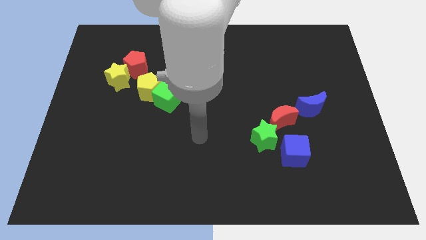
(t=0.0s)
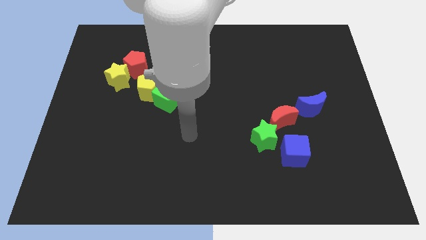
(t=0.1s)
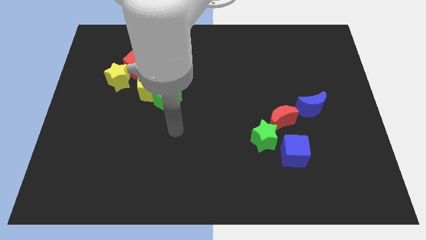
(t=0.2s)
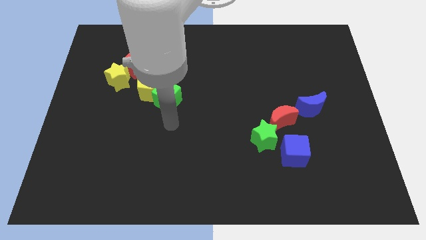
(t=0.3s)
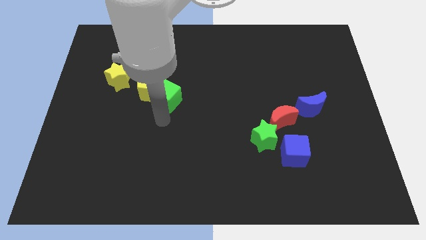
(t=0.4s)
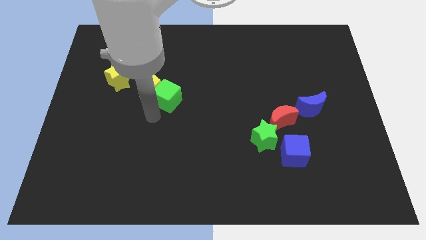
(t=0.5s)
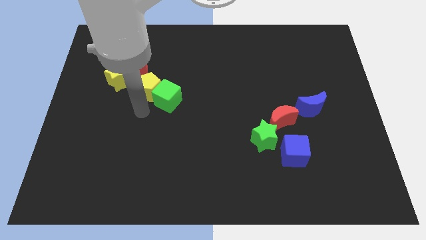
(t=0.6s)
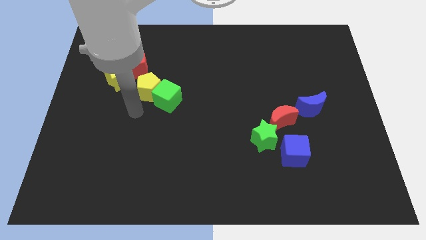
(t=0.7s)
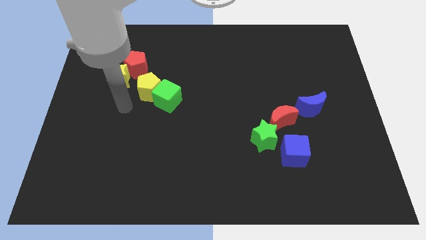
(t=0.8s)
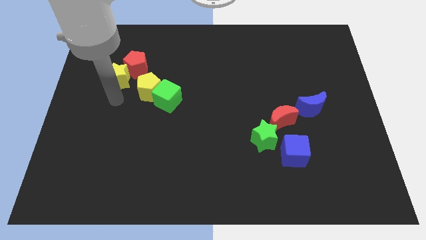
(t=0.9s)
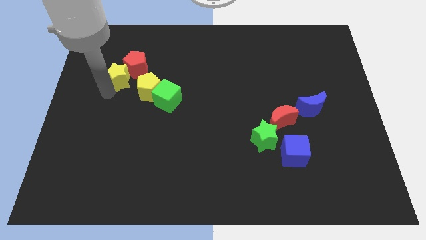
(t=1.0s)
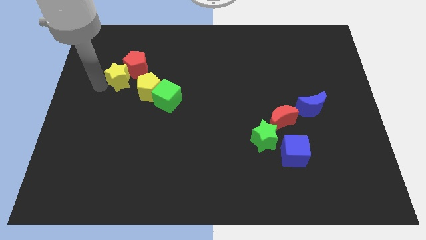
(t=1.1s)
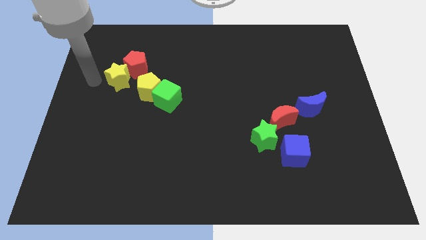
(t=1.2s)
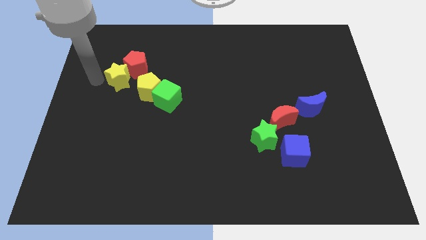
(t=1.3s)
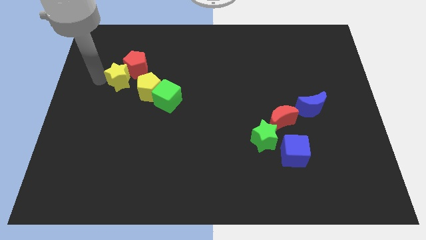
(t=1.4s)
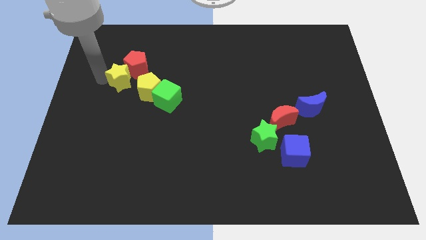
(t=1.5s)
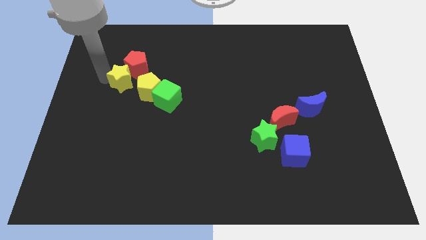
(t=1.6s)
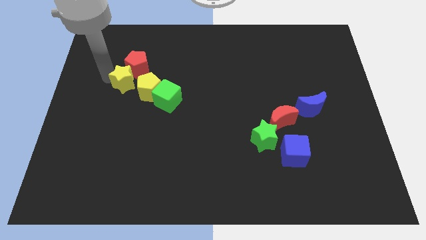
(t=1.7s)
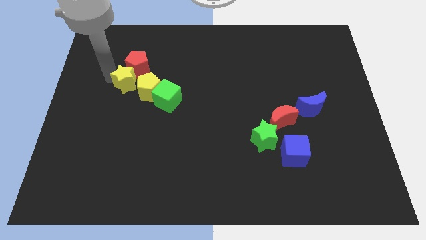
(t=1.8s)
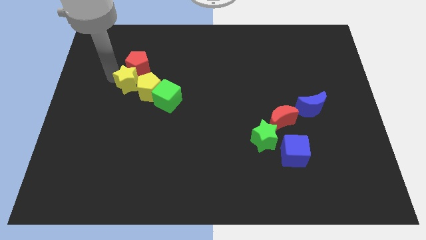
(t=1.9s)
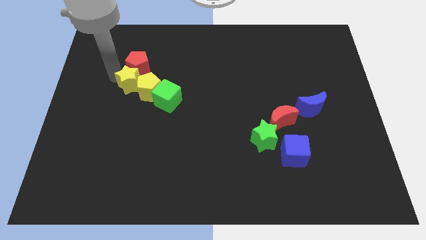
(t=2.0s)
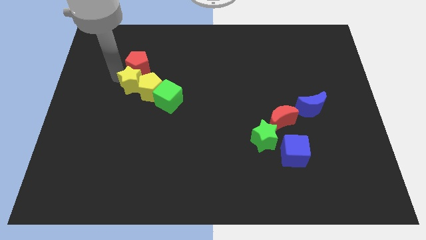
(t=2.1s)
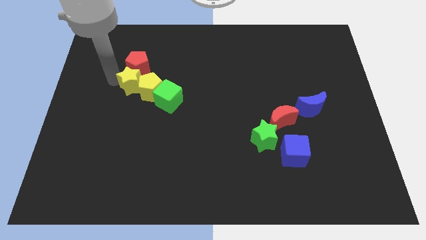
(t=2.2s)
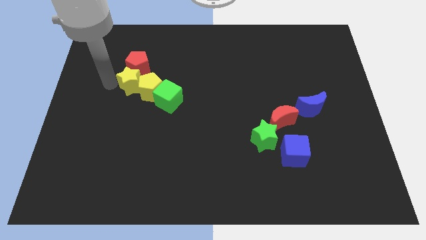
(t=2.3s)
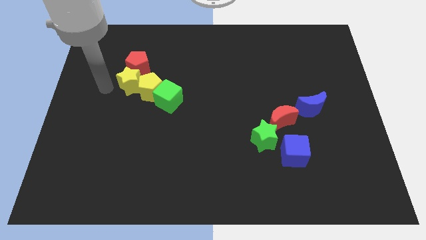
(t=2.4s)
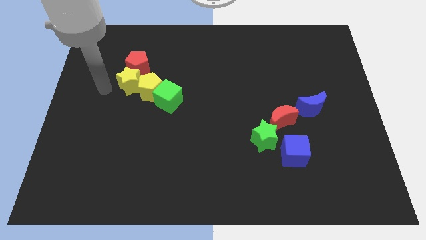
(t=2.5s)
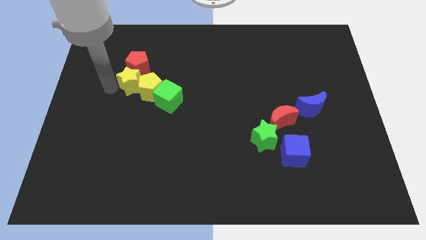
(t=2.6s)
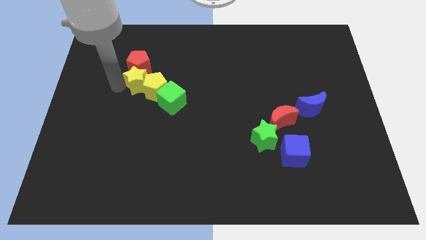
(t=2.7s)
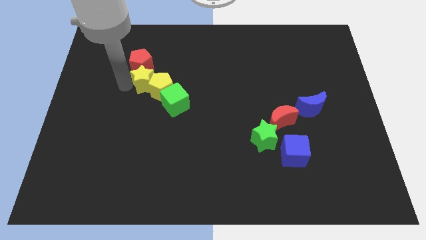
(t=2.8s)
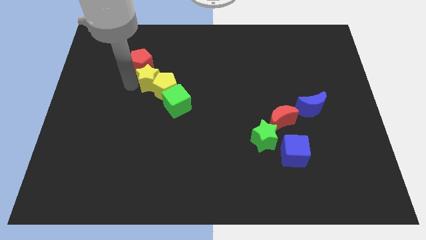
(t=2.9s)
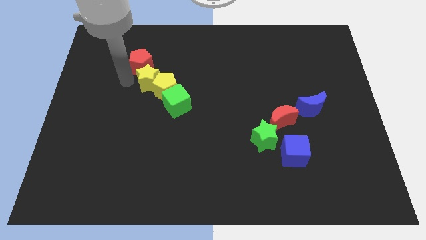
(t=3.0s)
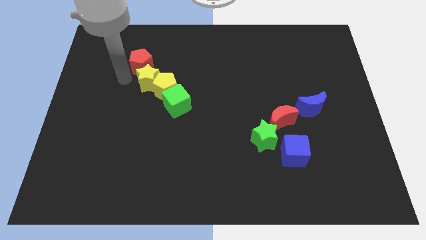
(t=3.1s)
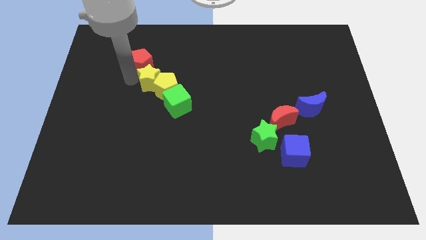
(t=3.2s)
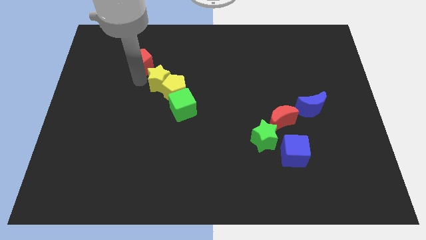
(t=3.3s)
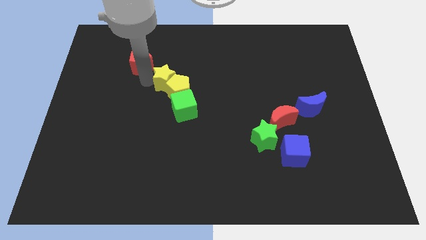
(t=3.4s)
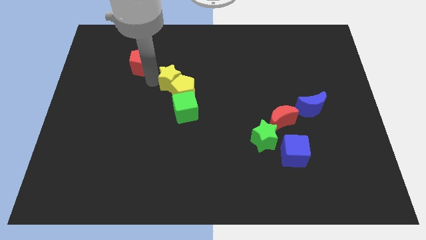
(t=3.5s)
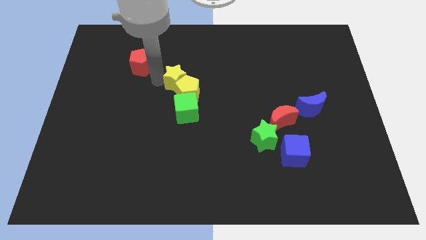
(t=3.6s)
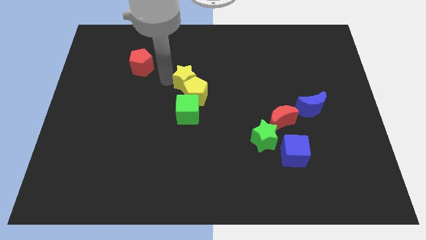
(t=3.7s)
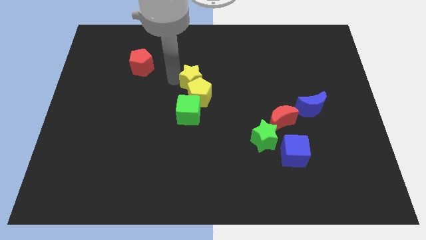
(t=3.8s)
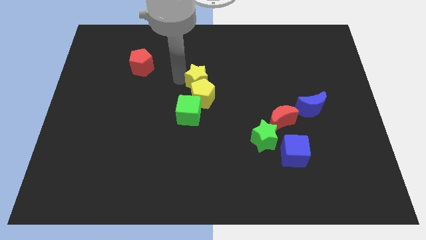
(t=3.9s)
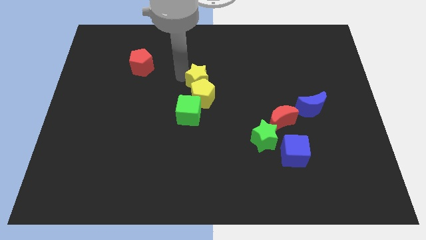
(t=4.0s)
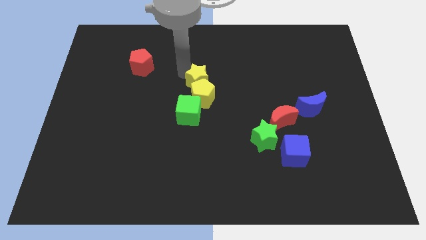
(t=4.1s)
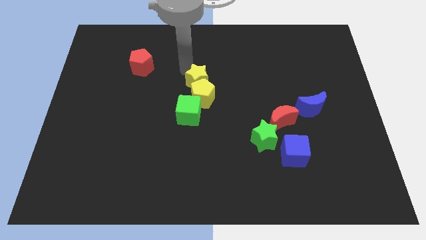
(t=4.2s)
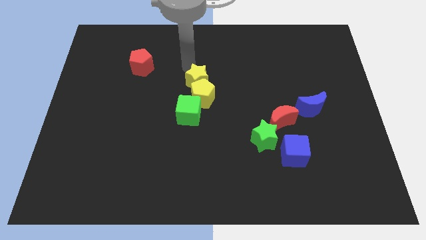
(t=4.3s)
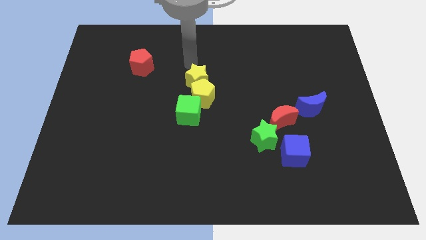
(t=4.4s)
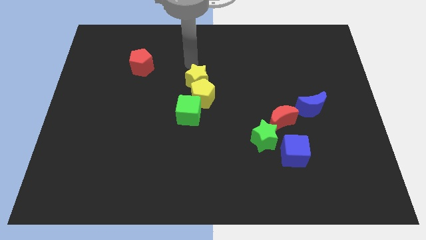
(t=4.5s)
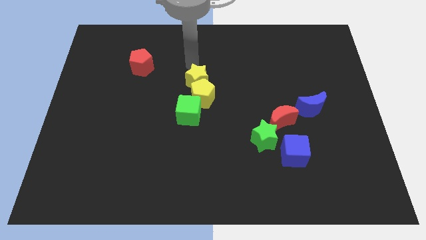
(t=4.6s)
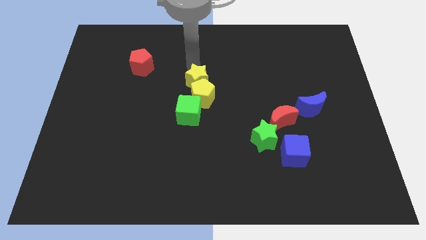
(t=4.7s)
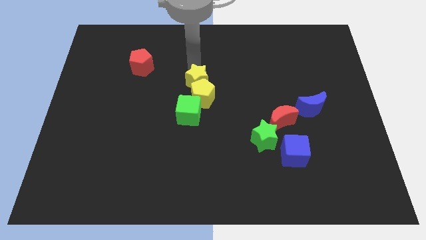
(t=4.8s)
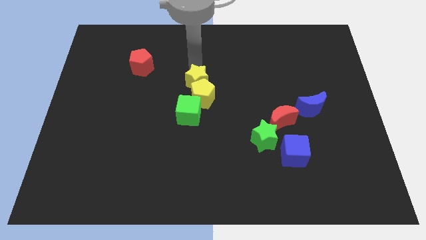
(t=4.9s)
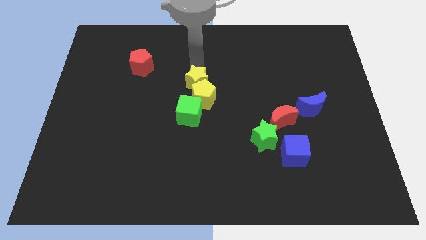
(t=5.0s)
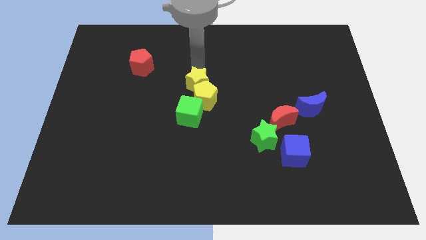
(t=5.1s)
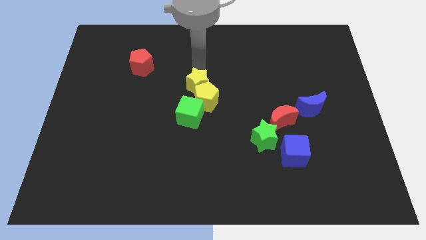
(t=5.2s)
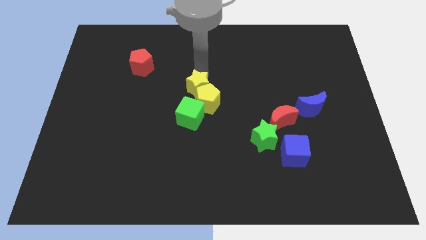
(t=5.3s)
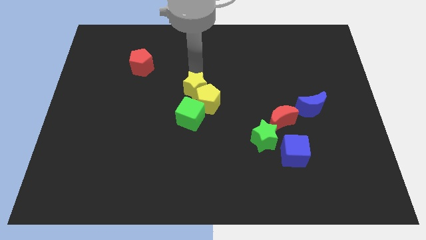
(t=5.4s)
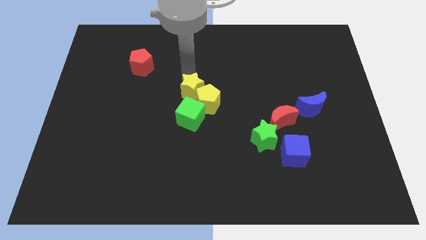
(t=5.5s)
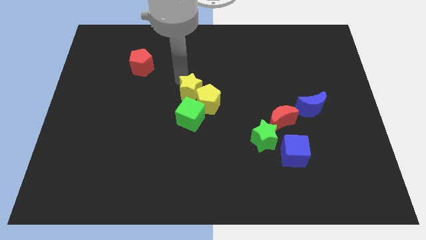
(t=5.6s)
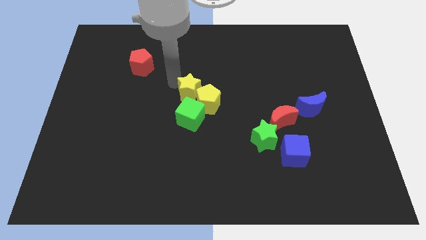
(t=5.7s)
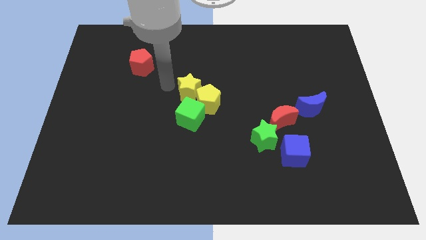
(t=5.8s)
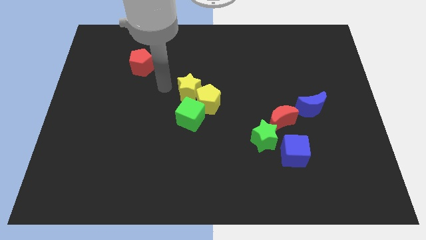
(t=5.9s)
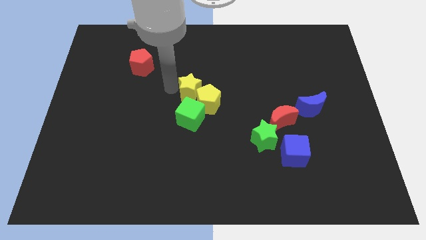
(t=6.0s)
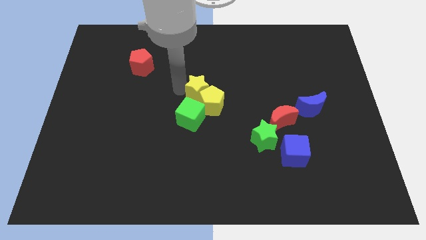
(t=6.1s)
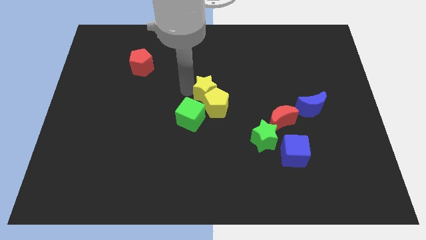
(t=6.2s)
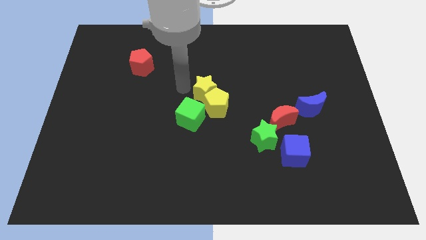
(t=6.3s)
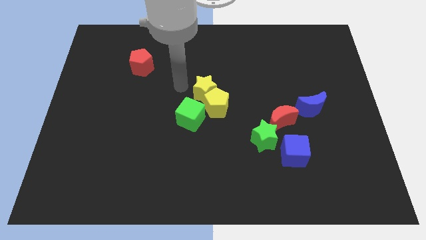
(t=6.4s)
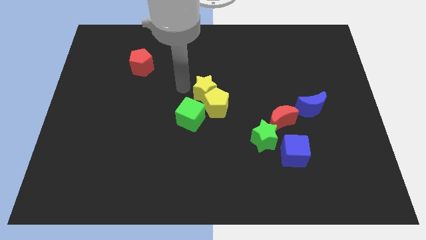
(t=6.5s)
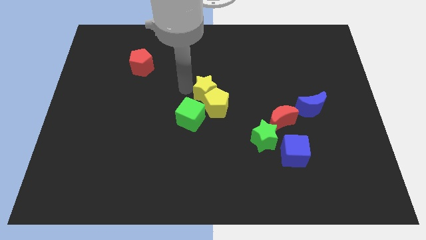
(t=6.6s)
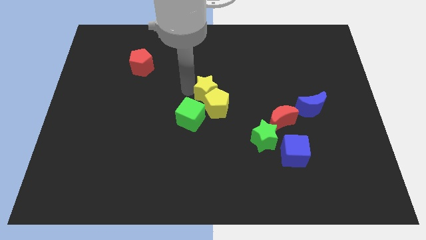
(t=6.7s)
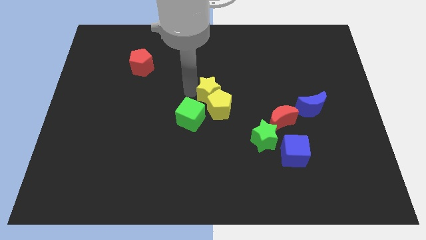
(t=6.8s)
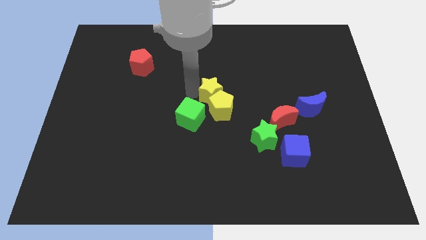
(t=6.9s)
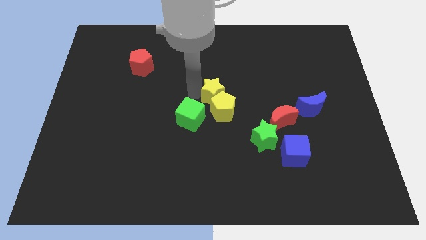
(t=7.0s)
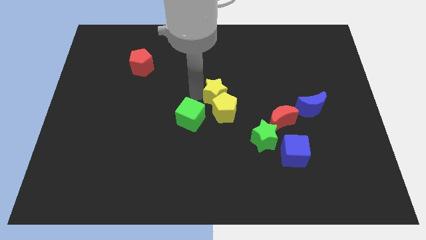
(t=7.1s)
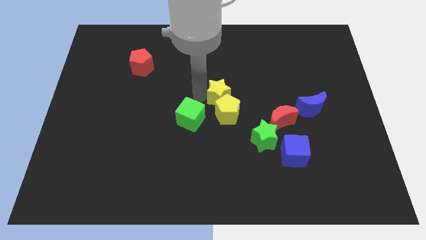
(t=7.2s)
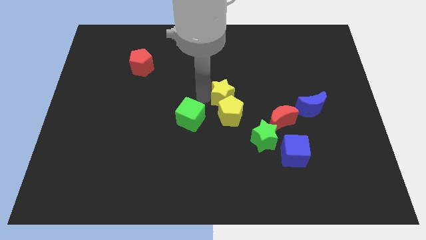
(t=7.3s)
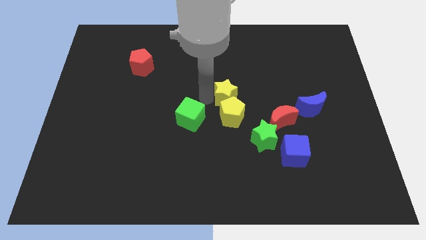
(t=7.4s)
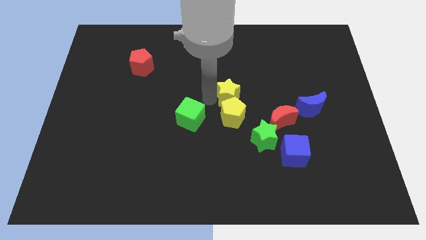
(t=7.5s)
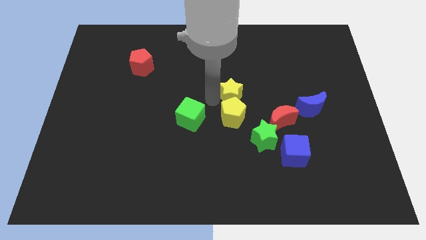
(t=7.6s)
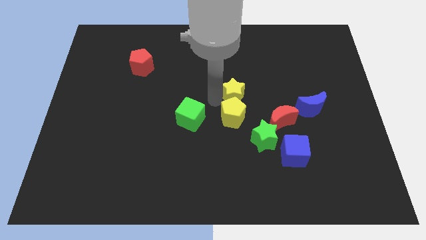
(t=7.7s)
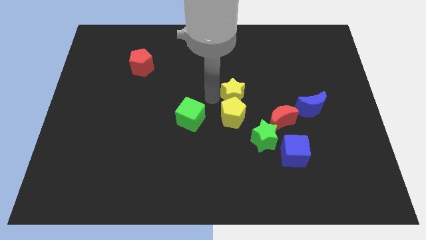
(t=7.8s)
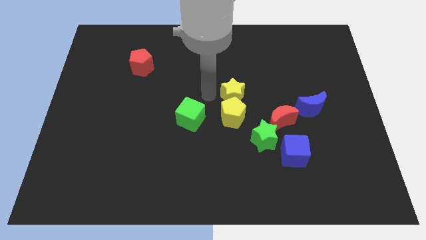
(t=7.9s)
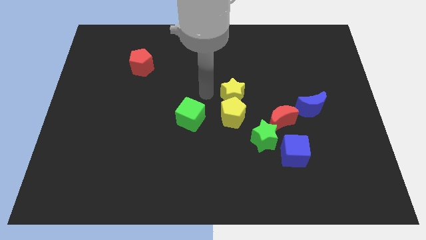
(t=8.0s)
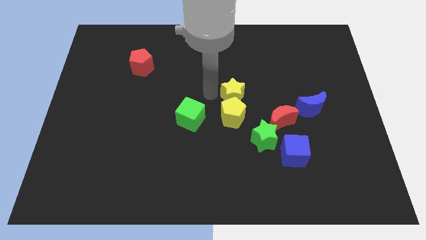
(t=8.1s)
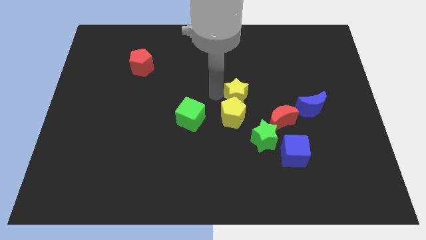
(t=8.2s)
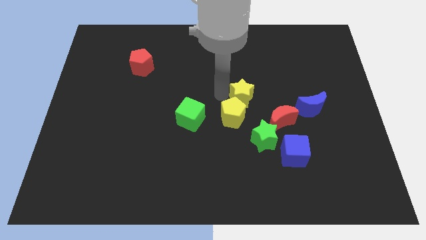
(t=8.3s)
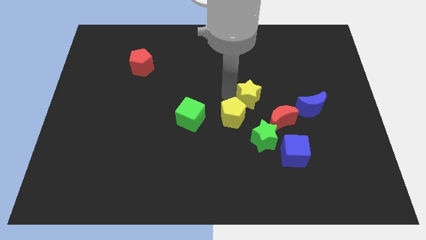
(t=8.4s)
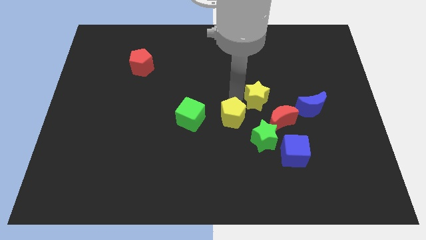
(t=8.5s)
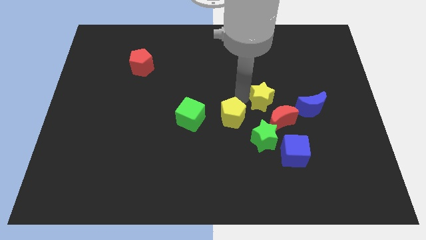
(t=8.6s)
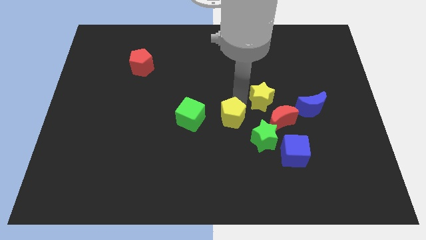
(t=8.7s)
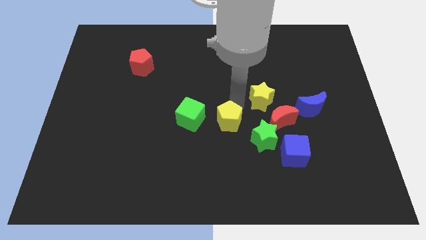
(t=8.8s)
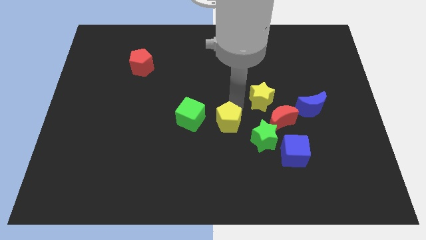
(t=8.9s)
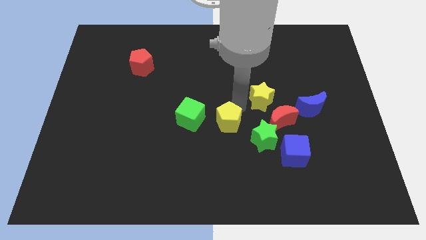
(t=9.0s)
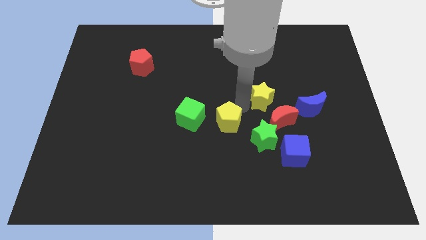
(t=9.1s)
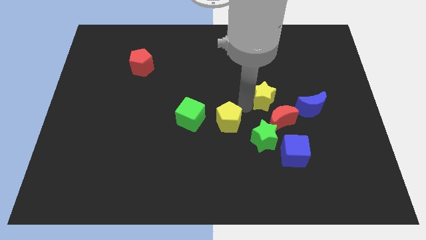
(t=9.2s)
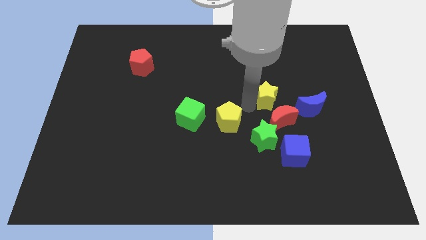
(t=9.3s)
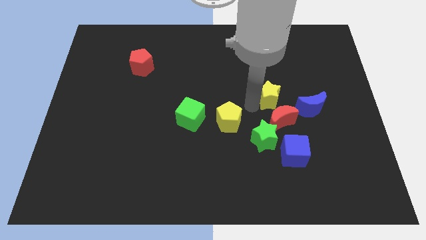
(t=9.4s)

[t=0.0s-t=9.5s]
push the yellow star diagonally up and to the left of the blue moon
